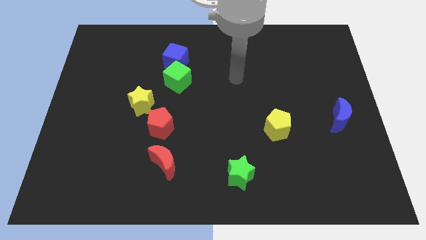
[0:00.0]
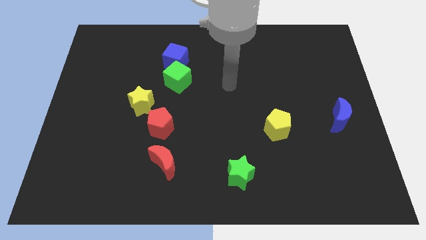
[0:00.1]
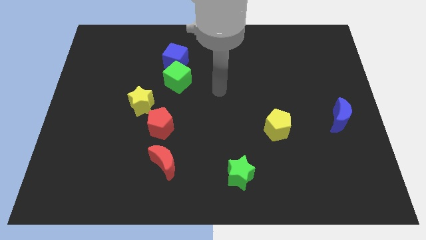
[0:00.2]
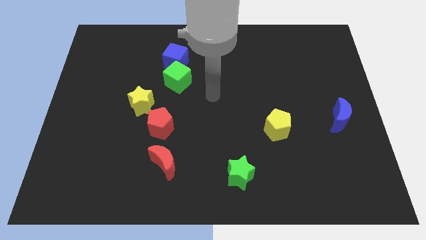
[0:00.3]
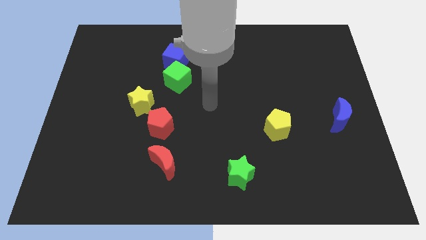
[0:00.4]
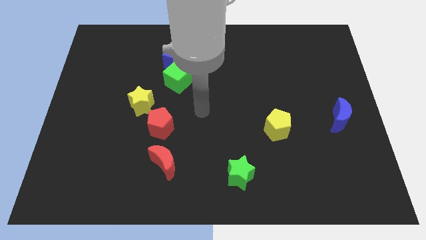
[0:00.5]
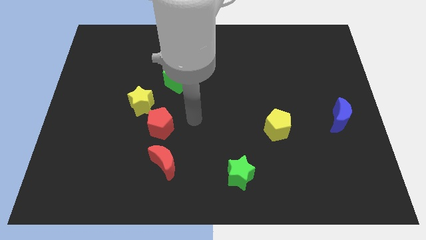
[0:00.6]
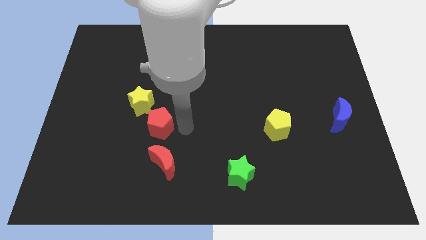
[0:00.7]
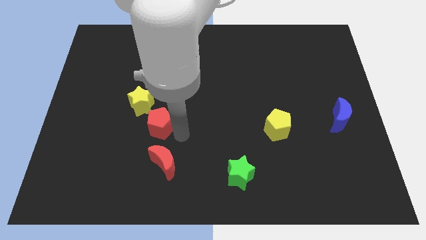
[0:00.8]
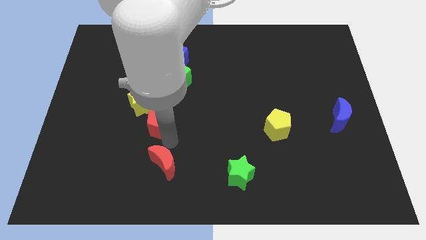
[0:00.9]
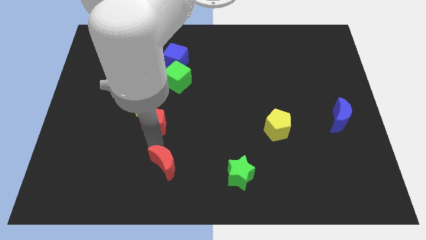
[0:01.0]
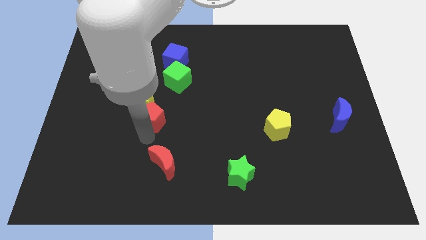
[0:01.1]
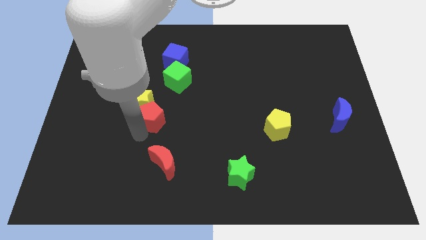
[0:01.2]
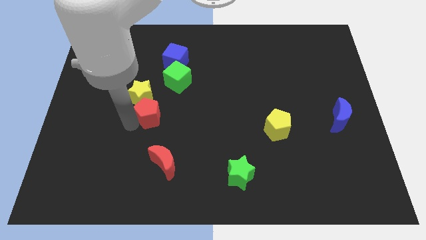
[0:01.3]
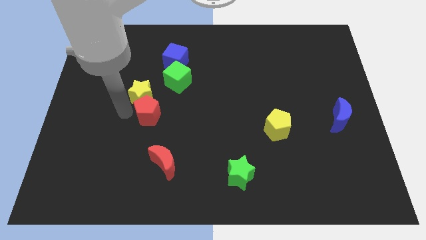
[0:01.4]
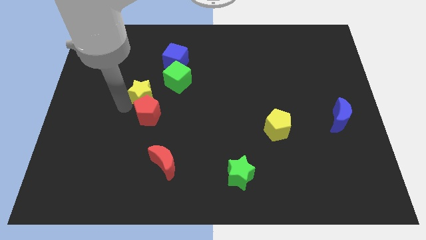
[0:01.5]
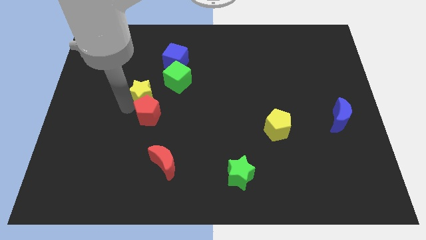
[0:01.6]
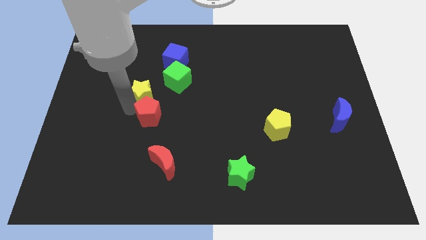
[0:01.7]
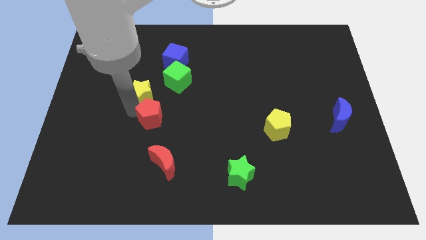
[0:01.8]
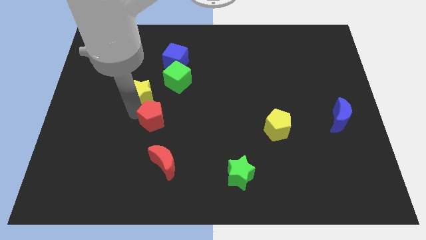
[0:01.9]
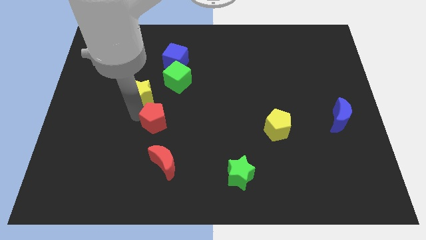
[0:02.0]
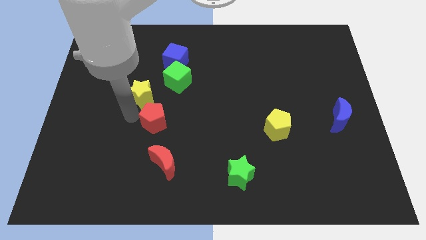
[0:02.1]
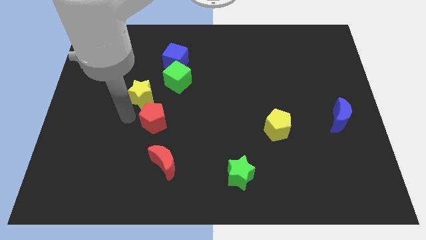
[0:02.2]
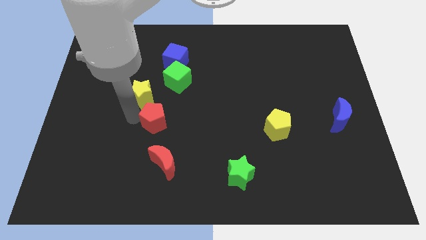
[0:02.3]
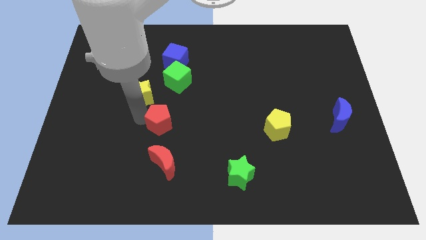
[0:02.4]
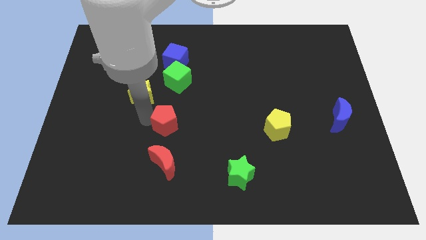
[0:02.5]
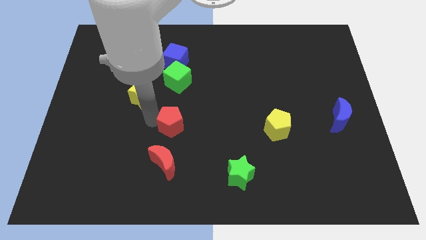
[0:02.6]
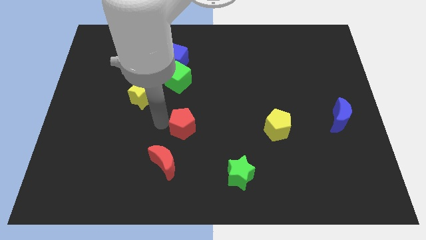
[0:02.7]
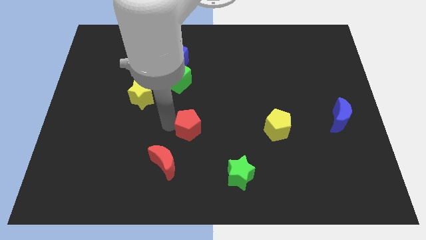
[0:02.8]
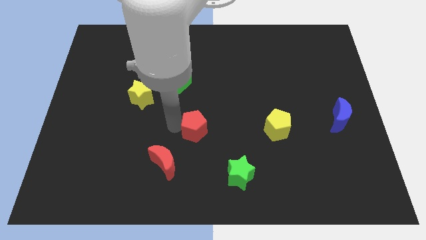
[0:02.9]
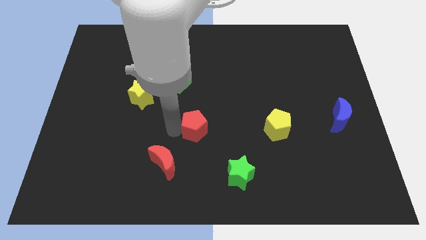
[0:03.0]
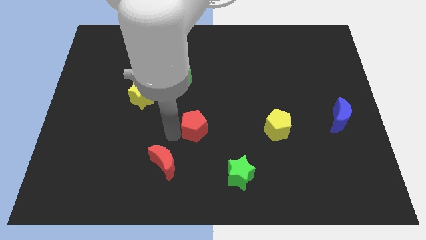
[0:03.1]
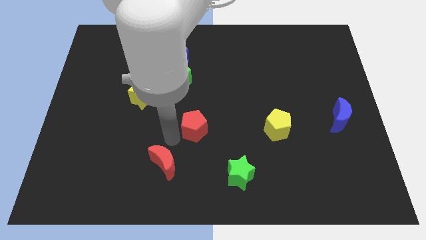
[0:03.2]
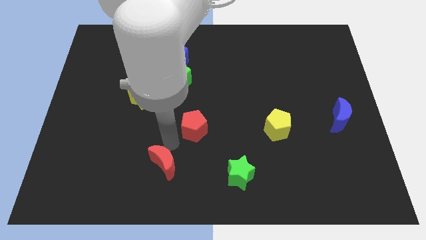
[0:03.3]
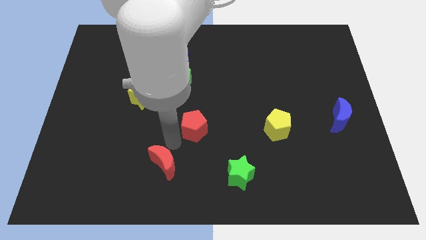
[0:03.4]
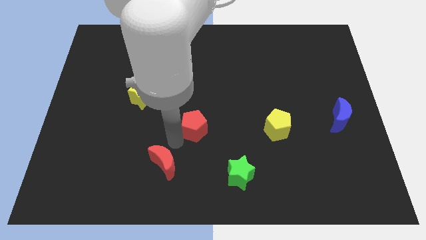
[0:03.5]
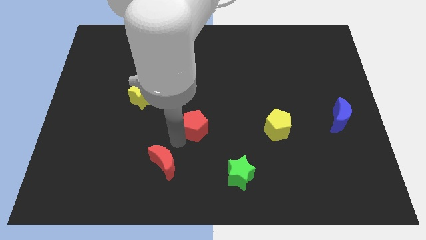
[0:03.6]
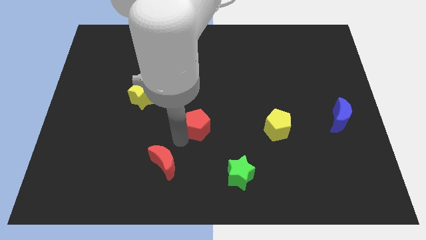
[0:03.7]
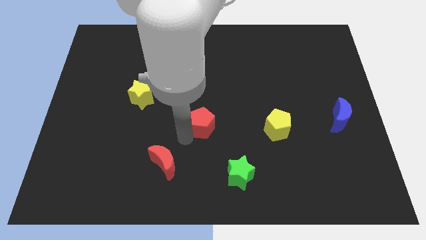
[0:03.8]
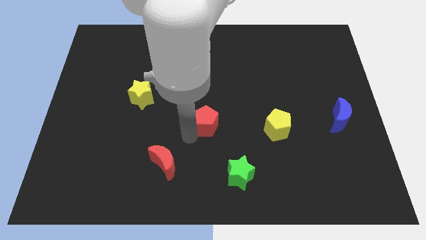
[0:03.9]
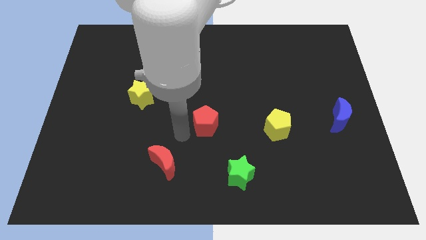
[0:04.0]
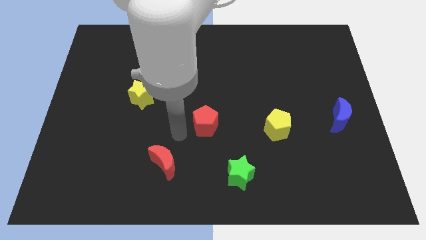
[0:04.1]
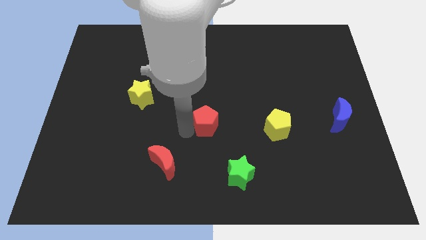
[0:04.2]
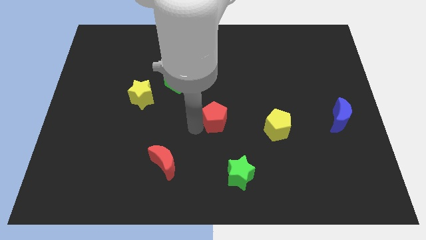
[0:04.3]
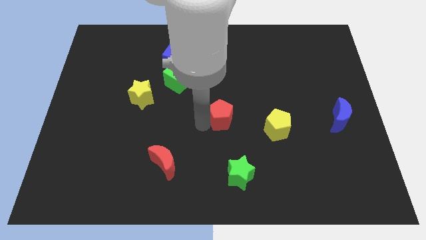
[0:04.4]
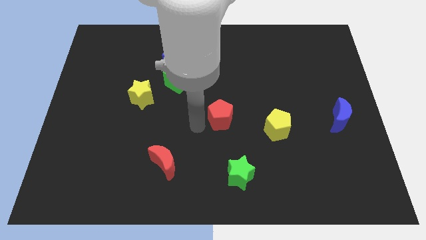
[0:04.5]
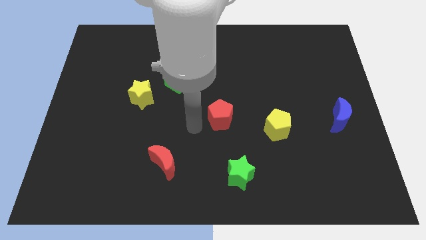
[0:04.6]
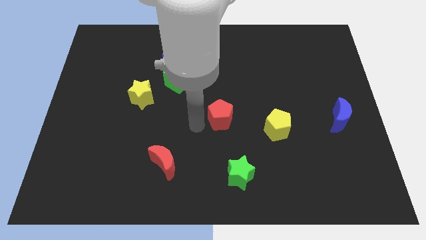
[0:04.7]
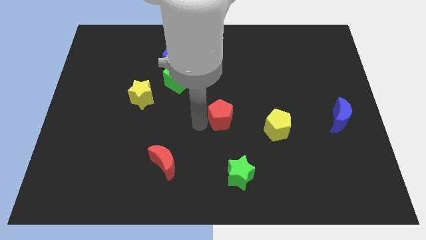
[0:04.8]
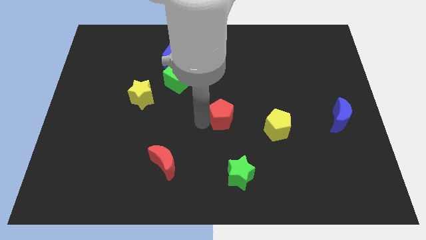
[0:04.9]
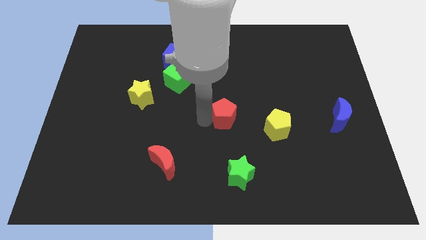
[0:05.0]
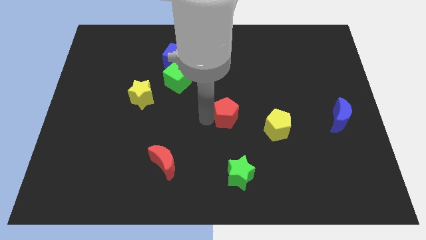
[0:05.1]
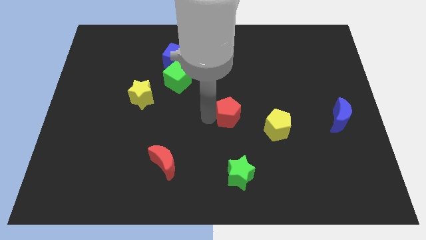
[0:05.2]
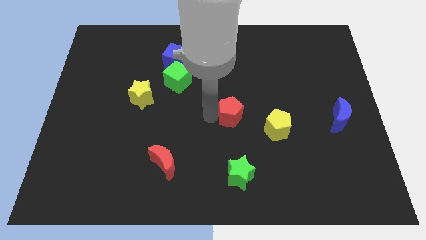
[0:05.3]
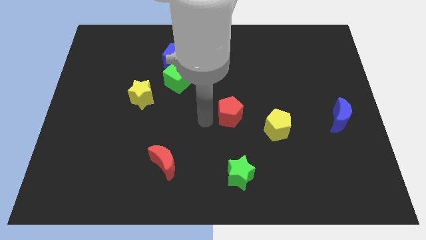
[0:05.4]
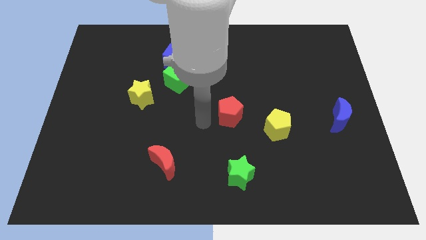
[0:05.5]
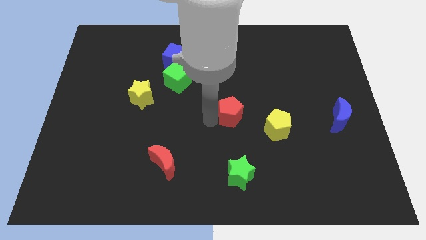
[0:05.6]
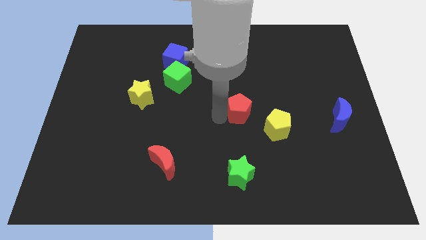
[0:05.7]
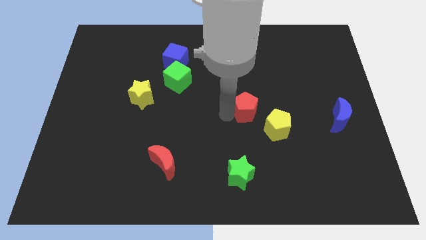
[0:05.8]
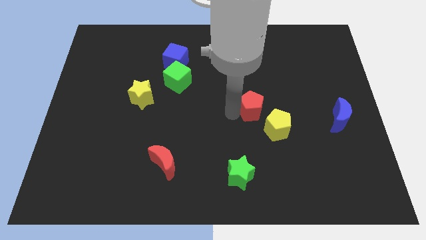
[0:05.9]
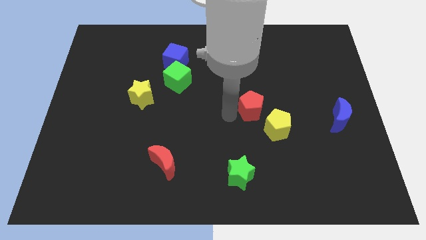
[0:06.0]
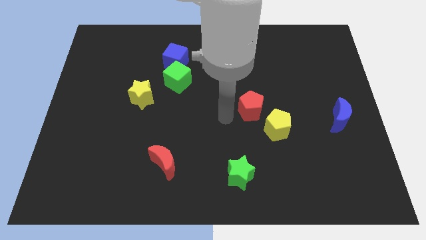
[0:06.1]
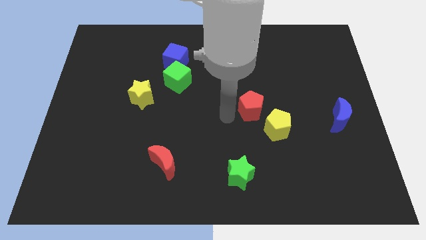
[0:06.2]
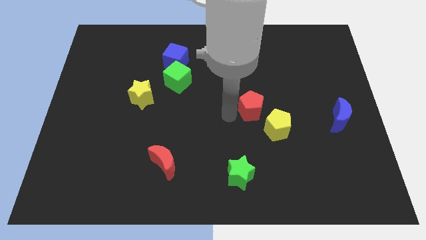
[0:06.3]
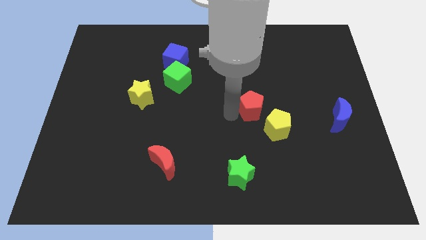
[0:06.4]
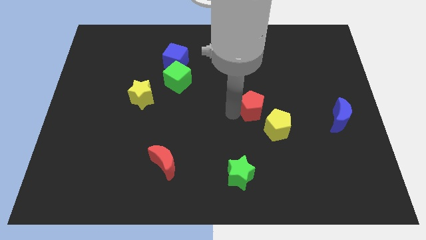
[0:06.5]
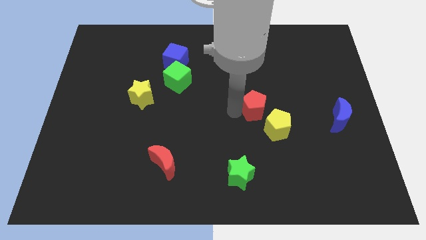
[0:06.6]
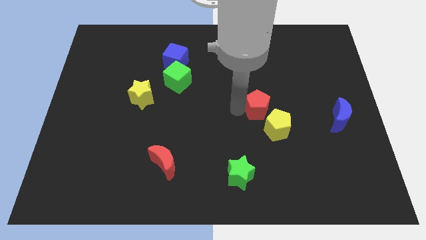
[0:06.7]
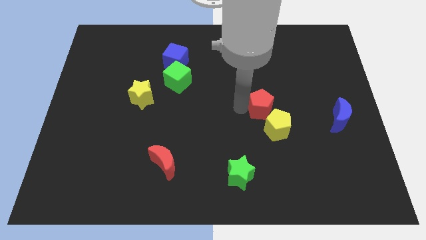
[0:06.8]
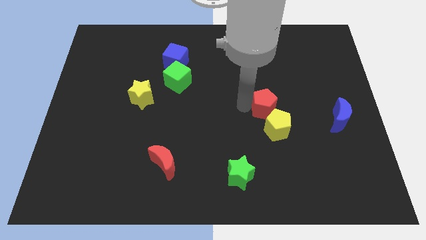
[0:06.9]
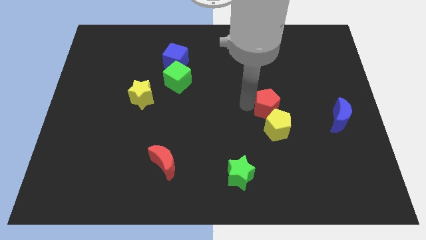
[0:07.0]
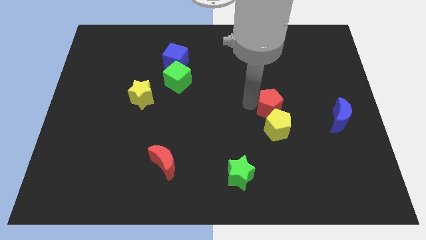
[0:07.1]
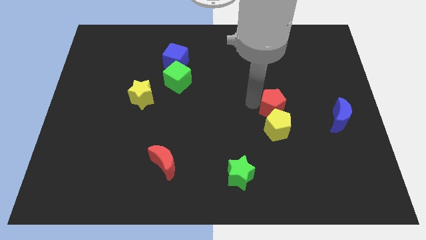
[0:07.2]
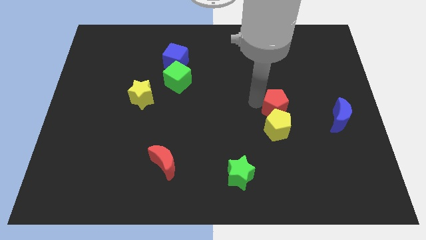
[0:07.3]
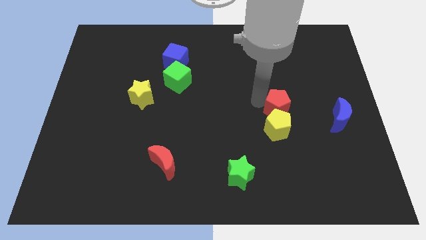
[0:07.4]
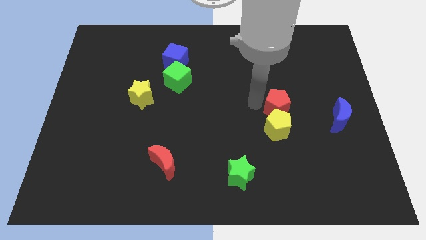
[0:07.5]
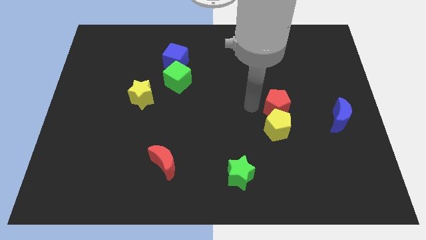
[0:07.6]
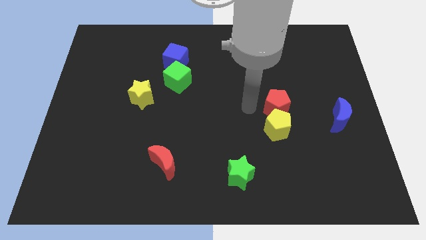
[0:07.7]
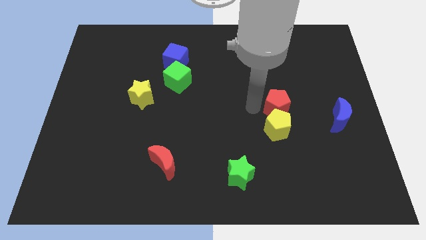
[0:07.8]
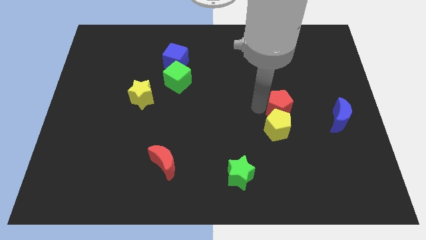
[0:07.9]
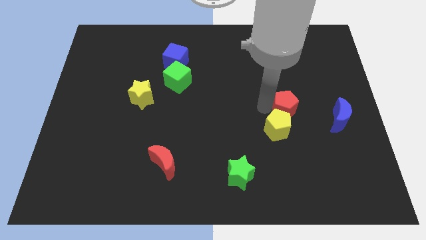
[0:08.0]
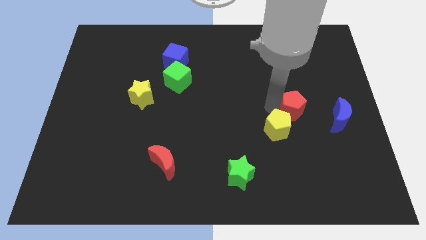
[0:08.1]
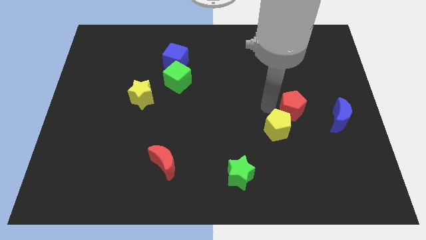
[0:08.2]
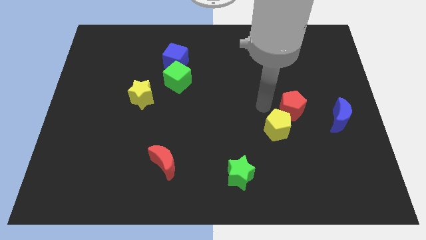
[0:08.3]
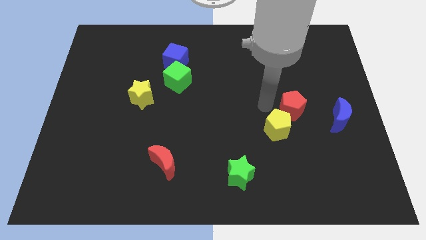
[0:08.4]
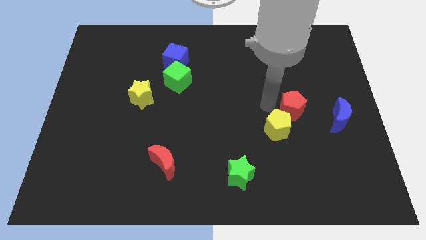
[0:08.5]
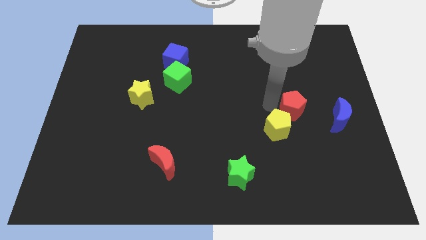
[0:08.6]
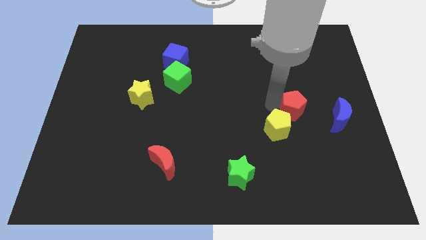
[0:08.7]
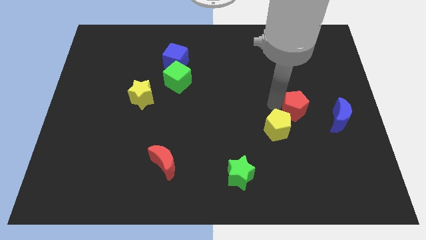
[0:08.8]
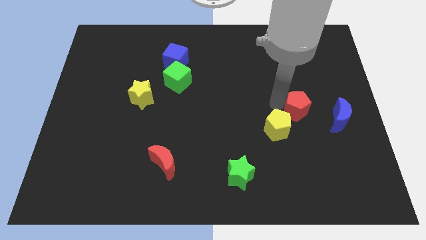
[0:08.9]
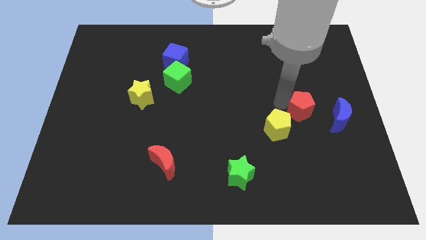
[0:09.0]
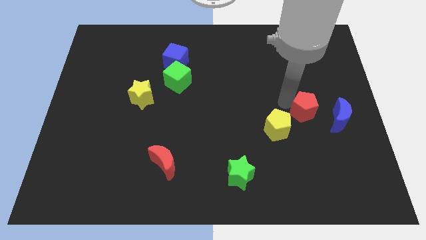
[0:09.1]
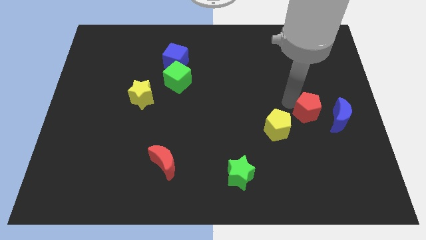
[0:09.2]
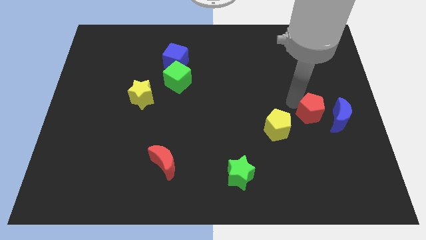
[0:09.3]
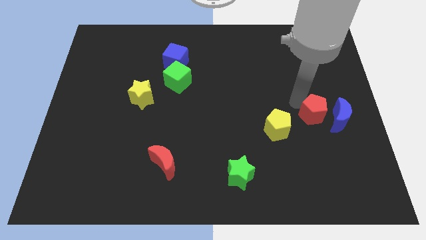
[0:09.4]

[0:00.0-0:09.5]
slide the red pentagon to the blue moon
